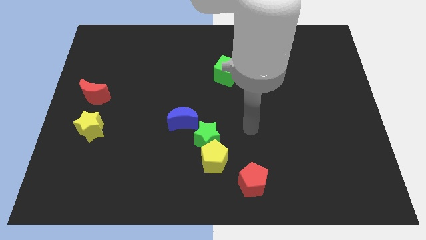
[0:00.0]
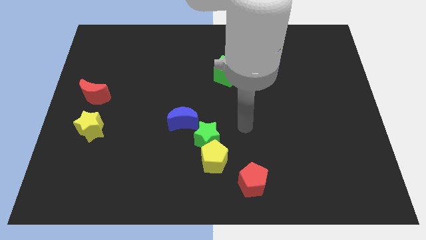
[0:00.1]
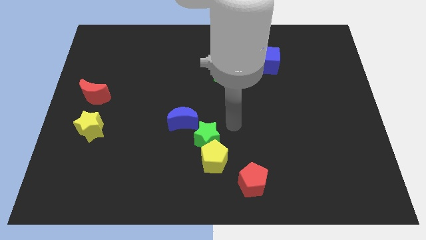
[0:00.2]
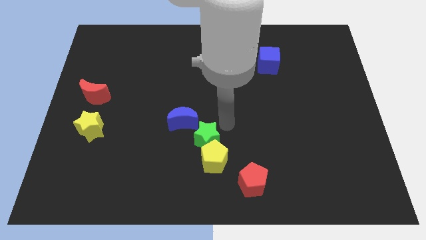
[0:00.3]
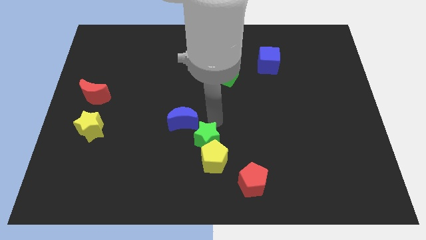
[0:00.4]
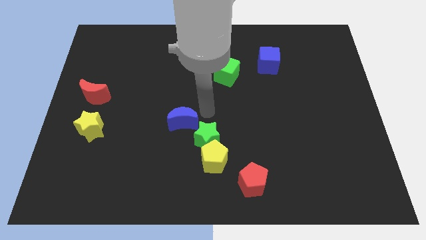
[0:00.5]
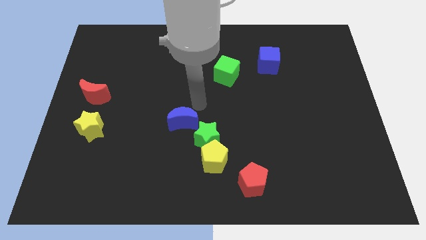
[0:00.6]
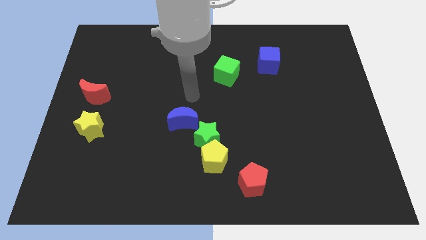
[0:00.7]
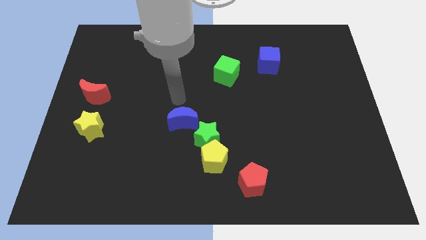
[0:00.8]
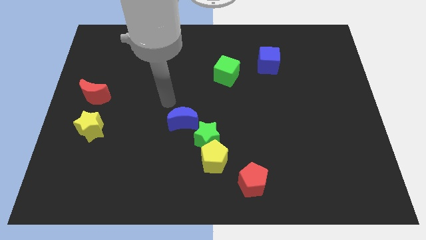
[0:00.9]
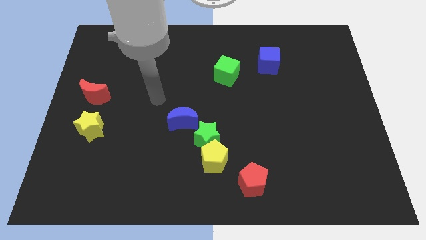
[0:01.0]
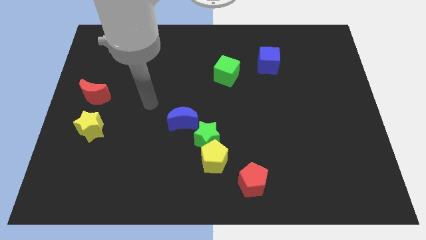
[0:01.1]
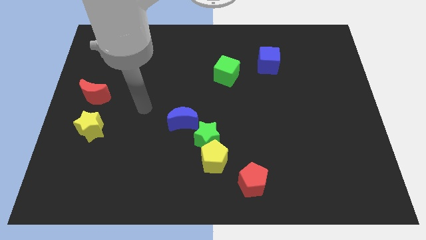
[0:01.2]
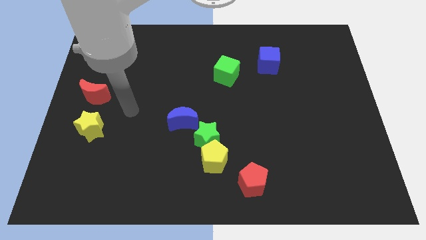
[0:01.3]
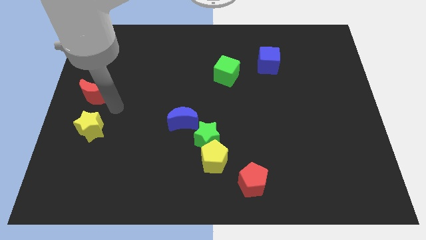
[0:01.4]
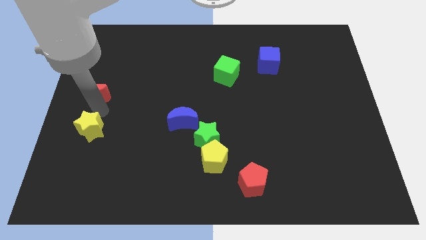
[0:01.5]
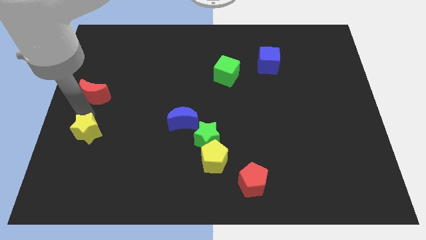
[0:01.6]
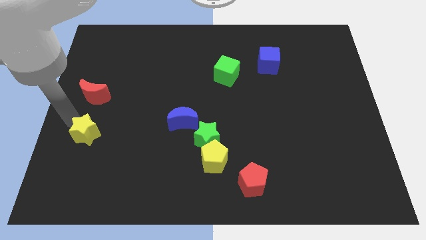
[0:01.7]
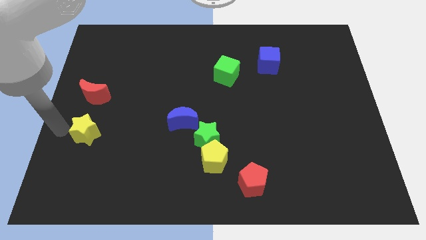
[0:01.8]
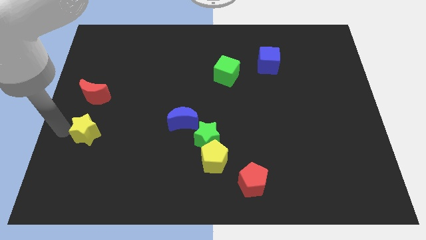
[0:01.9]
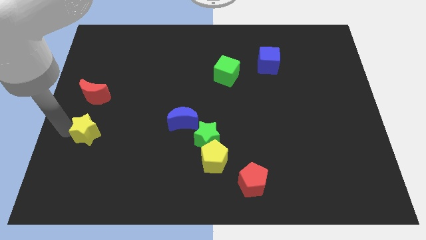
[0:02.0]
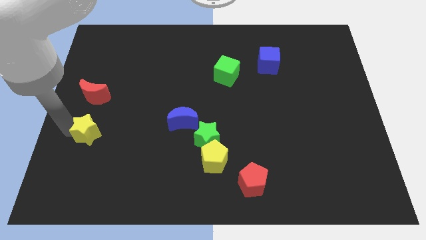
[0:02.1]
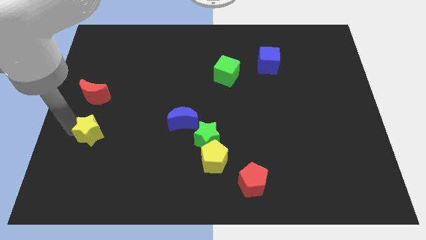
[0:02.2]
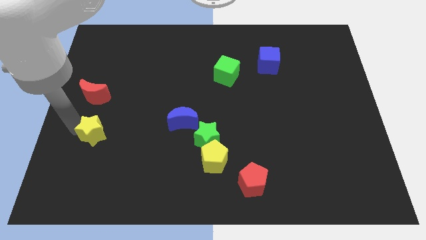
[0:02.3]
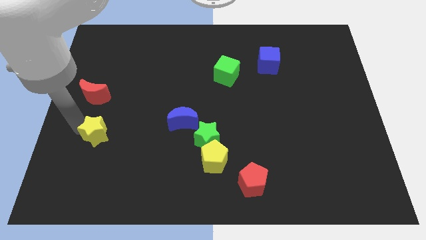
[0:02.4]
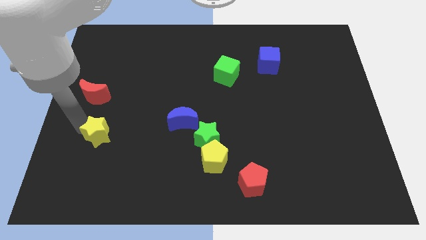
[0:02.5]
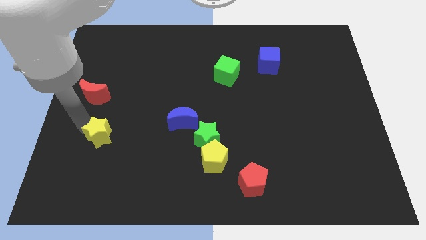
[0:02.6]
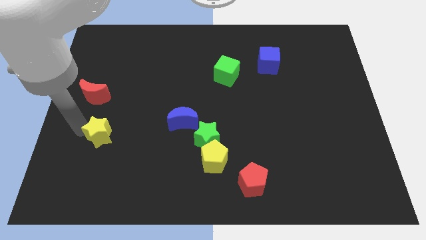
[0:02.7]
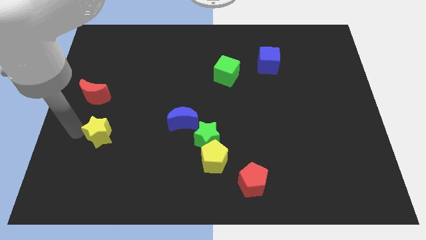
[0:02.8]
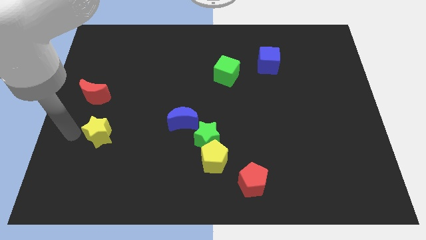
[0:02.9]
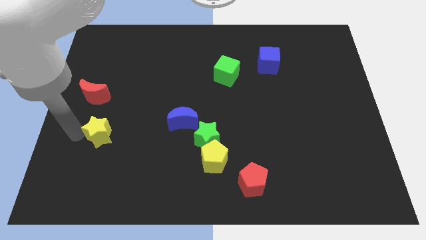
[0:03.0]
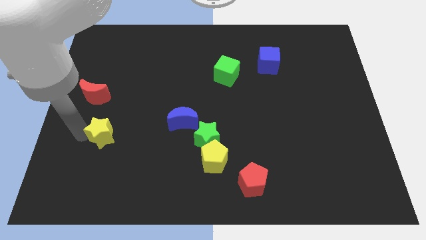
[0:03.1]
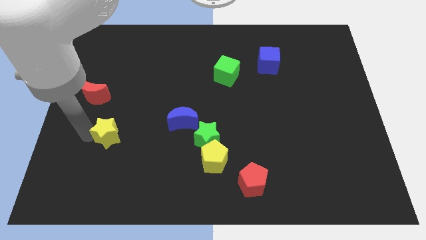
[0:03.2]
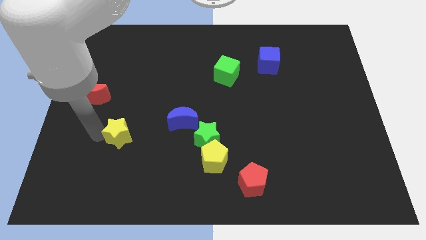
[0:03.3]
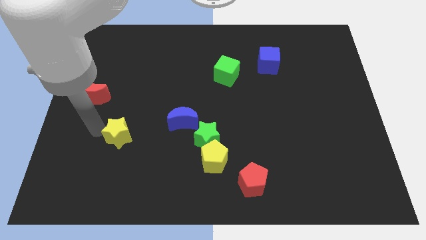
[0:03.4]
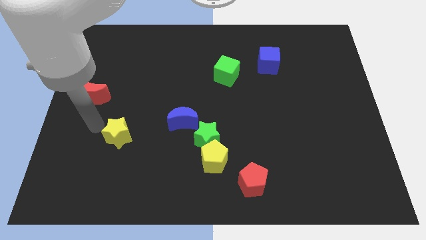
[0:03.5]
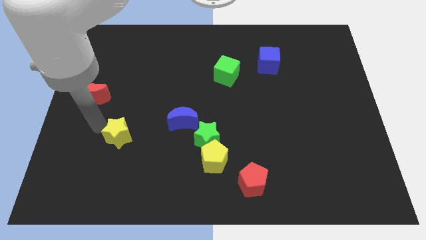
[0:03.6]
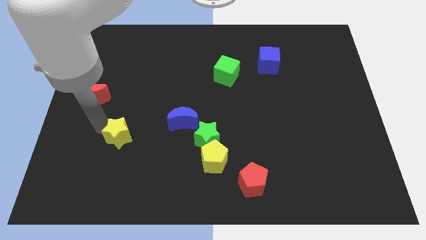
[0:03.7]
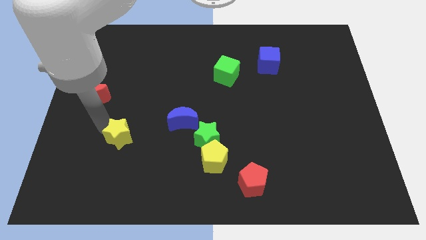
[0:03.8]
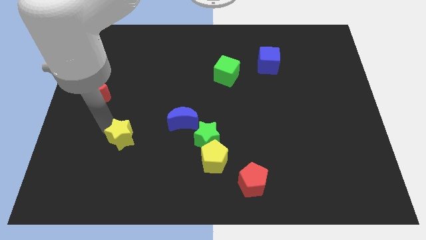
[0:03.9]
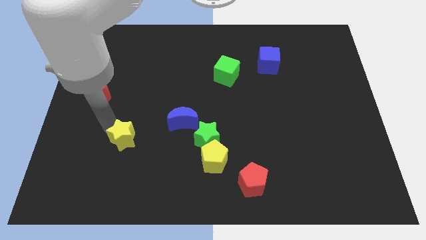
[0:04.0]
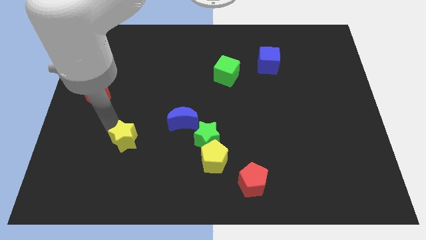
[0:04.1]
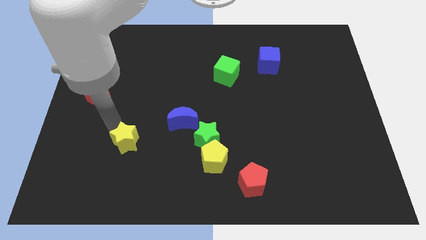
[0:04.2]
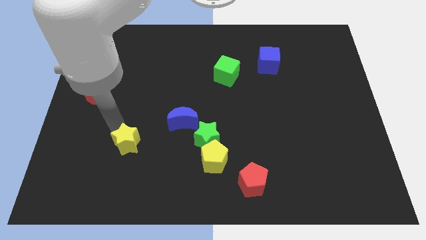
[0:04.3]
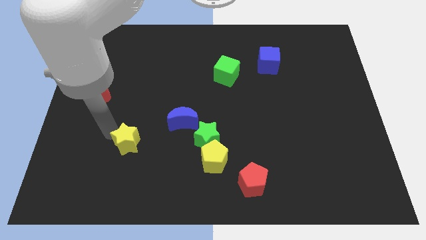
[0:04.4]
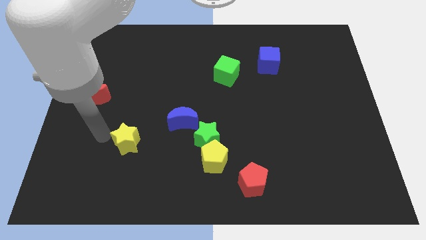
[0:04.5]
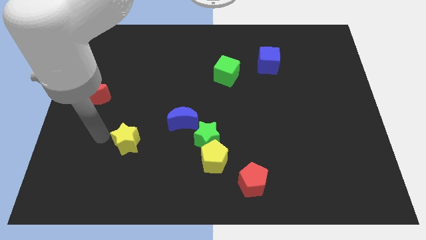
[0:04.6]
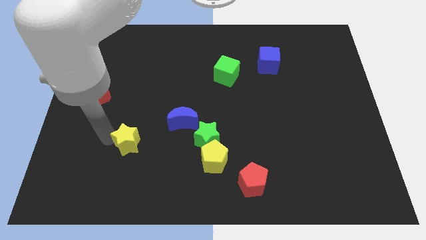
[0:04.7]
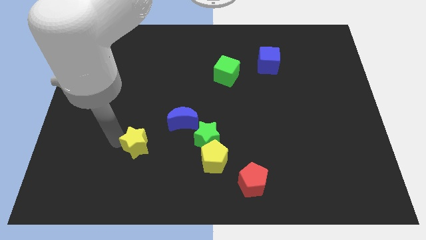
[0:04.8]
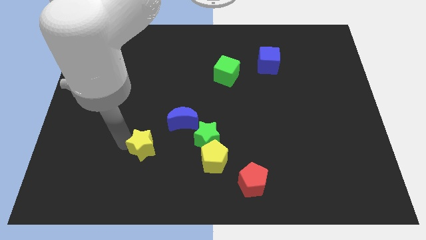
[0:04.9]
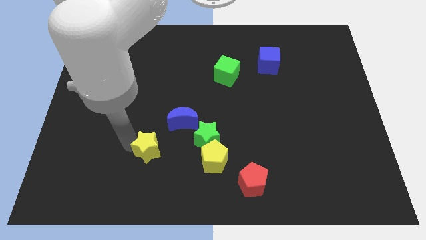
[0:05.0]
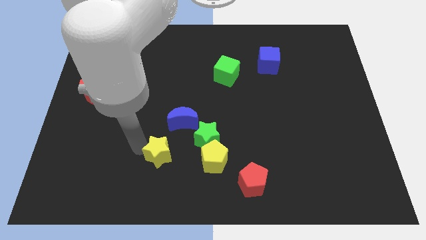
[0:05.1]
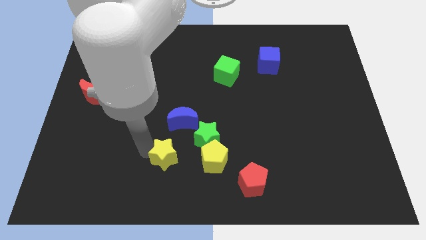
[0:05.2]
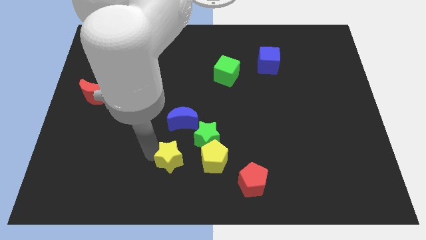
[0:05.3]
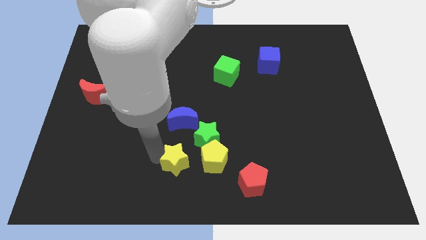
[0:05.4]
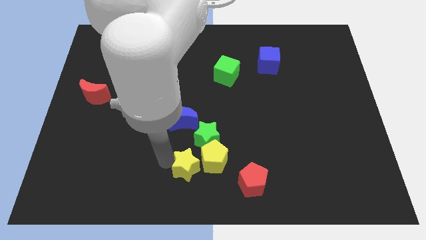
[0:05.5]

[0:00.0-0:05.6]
put the yellow star towards the yellow pentagon

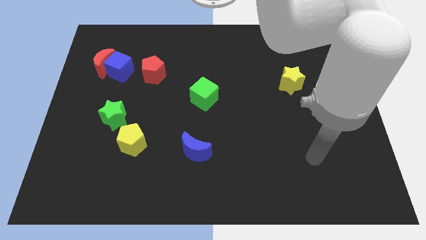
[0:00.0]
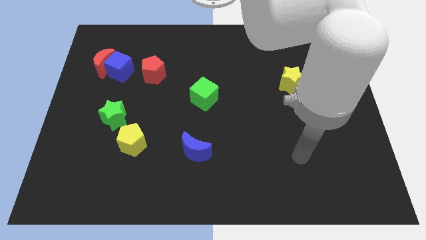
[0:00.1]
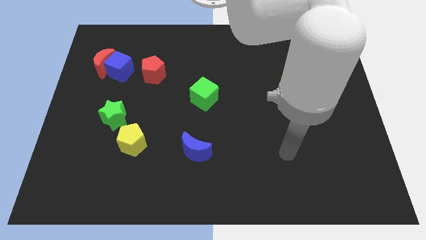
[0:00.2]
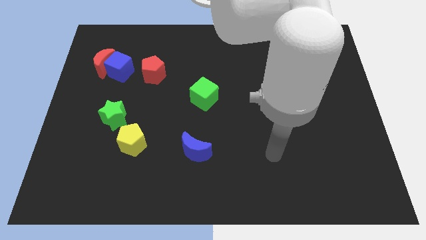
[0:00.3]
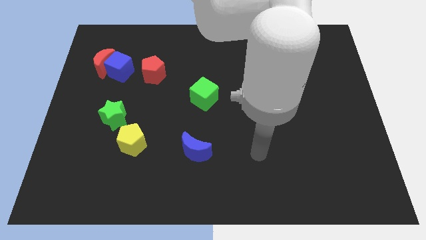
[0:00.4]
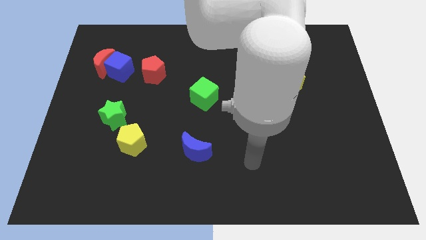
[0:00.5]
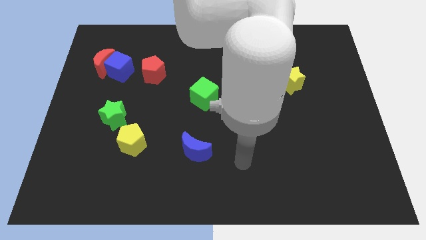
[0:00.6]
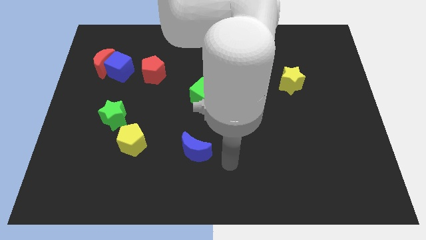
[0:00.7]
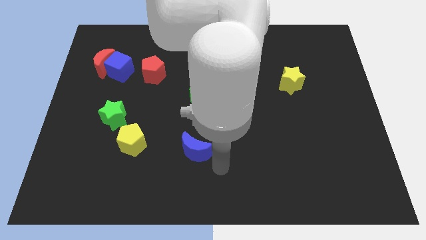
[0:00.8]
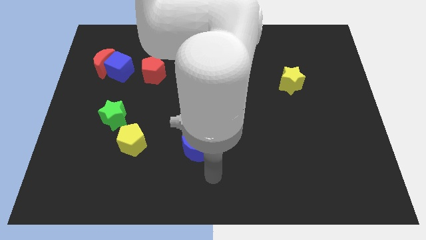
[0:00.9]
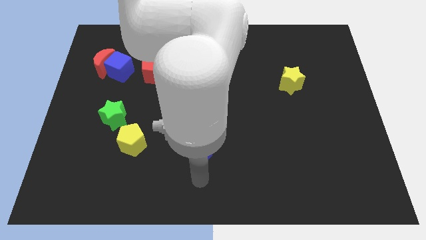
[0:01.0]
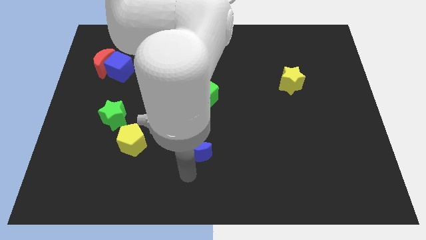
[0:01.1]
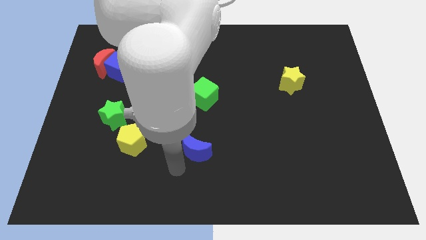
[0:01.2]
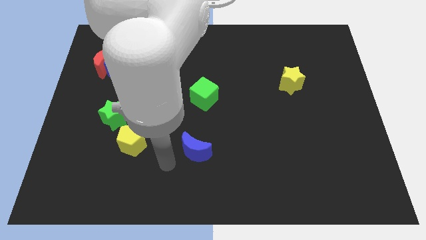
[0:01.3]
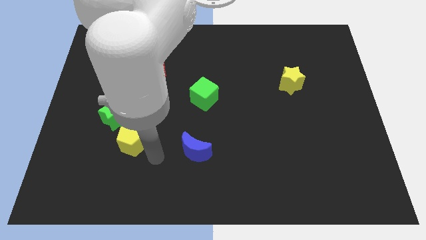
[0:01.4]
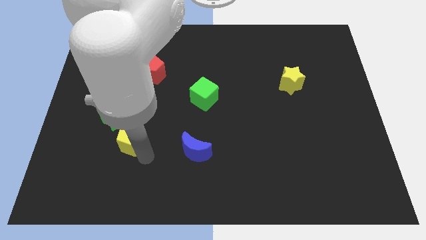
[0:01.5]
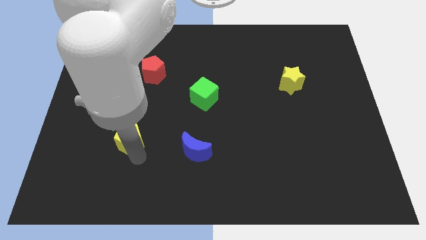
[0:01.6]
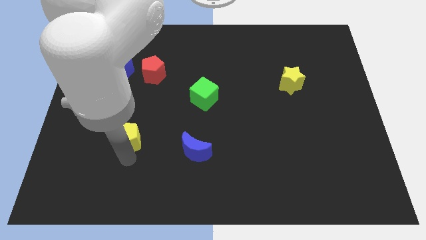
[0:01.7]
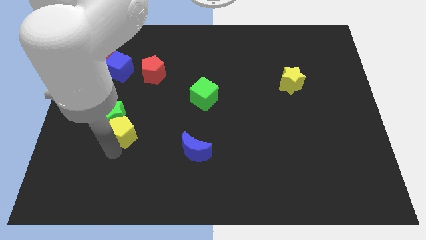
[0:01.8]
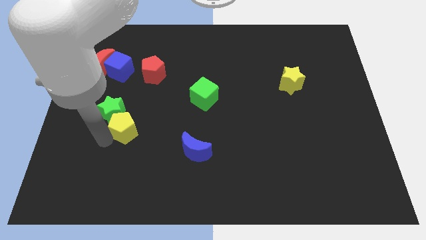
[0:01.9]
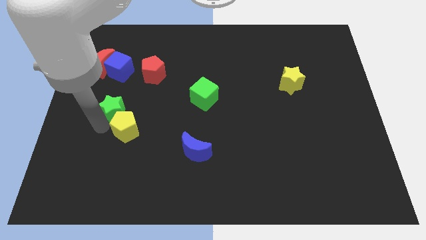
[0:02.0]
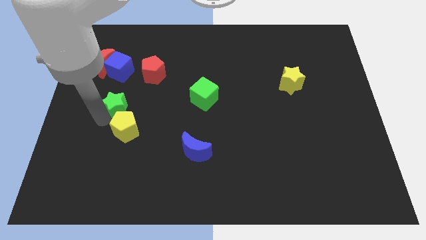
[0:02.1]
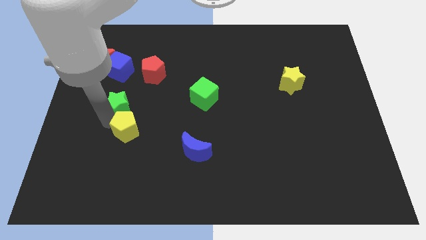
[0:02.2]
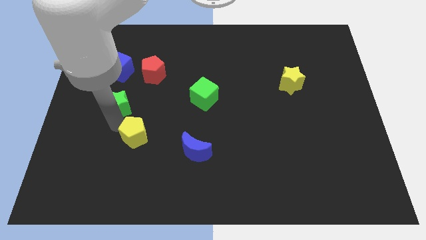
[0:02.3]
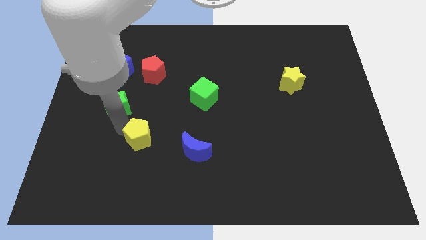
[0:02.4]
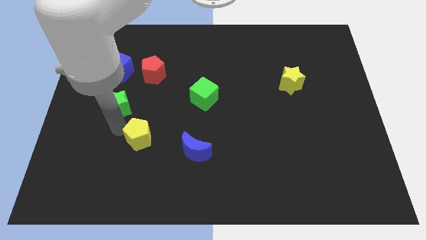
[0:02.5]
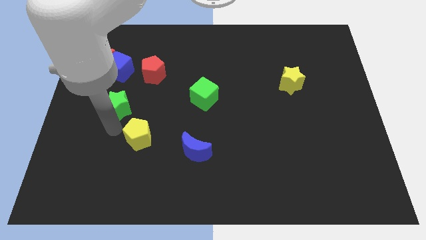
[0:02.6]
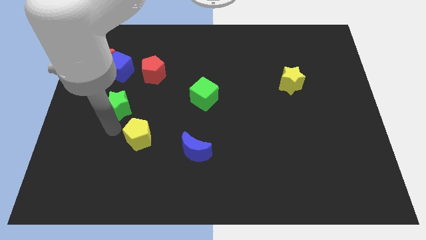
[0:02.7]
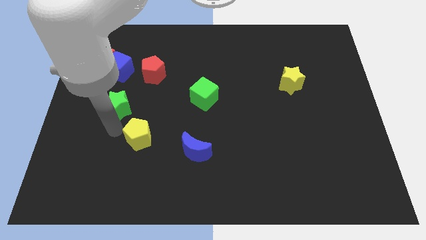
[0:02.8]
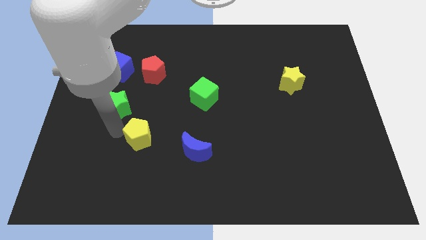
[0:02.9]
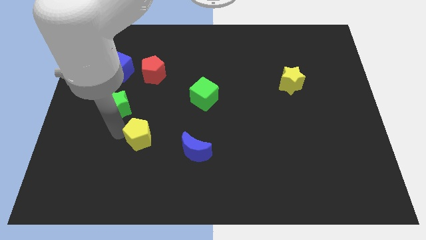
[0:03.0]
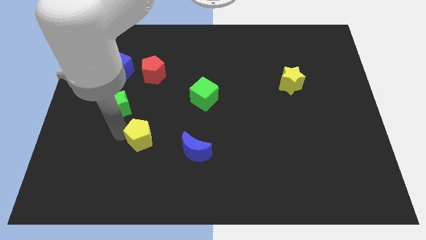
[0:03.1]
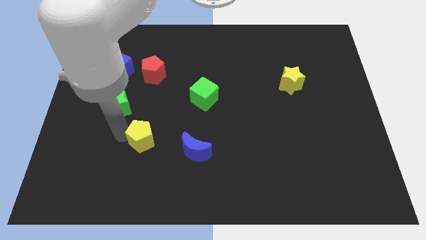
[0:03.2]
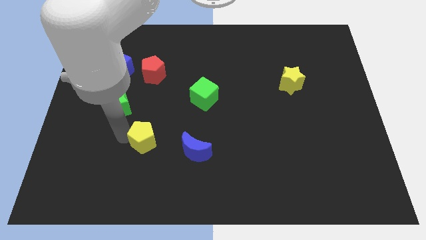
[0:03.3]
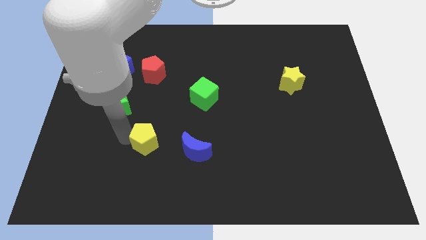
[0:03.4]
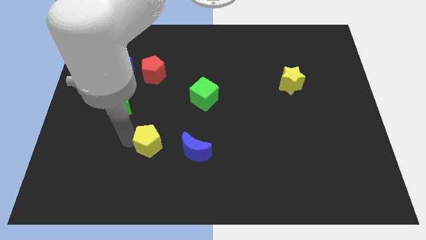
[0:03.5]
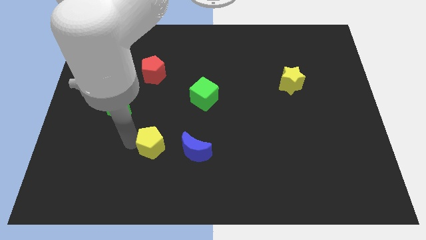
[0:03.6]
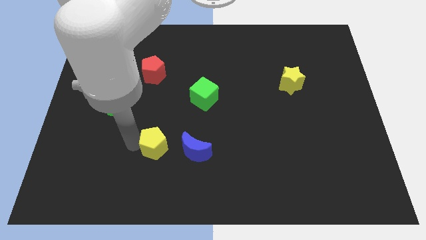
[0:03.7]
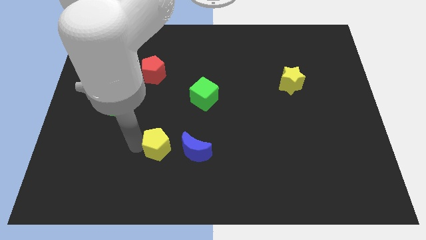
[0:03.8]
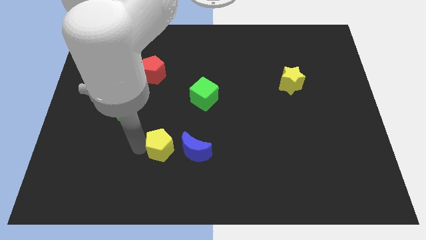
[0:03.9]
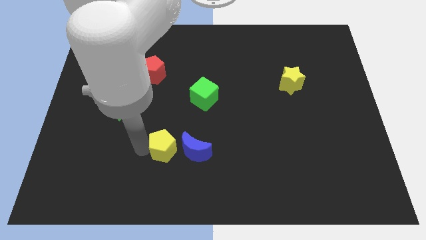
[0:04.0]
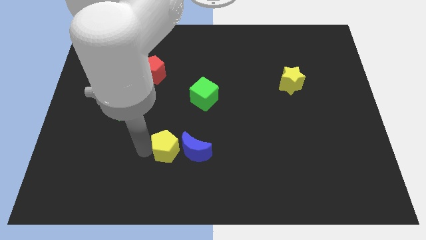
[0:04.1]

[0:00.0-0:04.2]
push the yellow pentagon close to the blue moon
